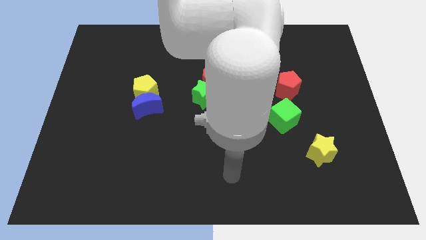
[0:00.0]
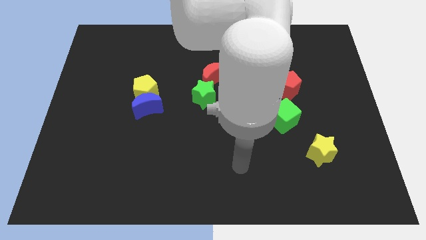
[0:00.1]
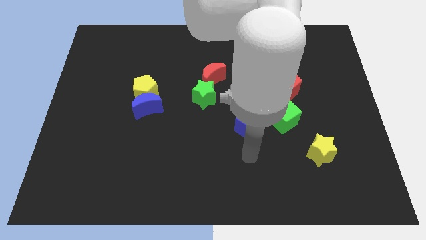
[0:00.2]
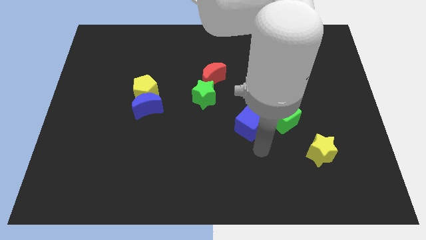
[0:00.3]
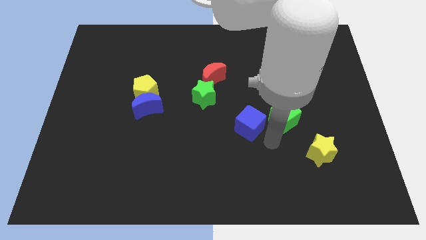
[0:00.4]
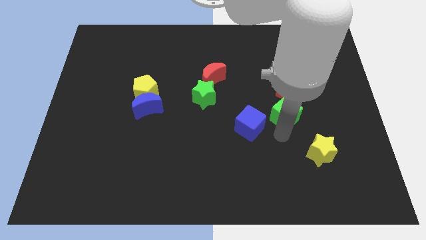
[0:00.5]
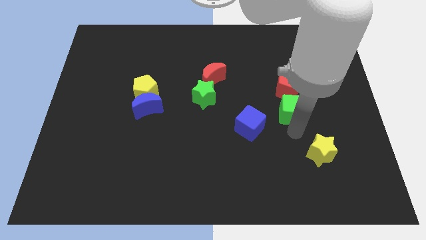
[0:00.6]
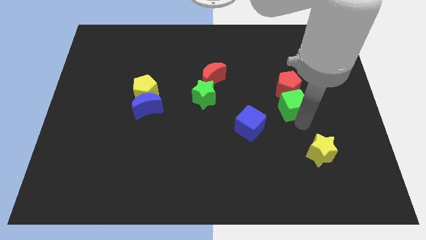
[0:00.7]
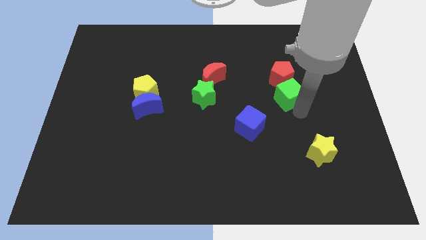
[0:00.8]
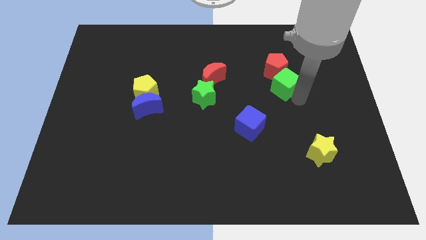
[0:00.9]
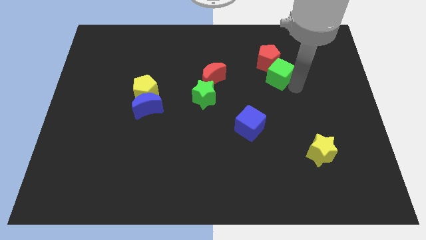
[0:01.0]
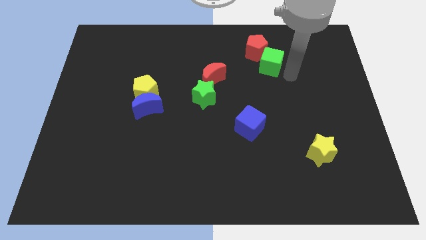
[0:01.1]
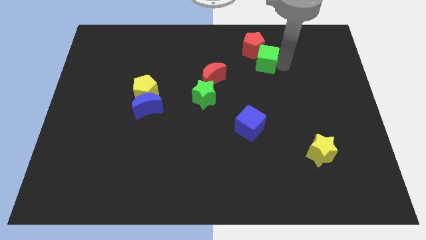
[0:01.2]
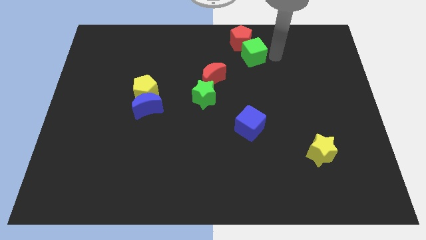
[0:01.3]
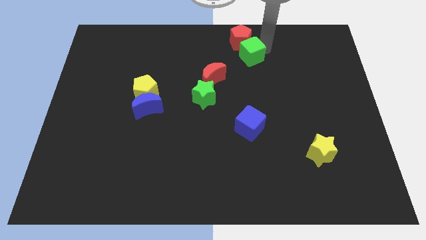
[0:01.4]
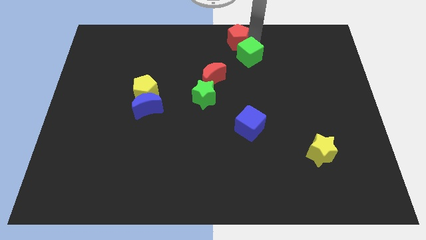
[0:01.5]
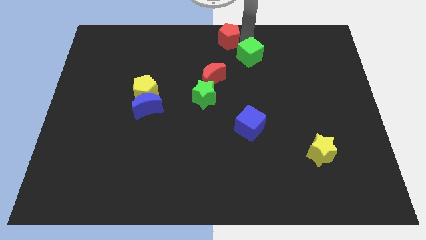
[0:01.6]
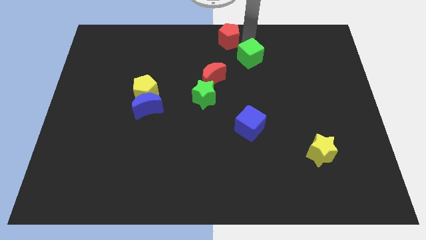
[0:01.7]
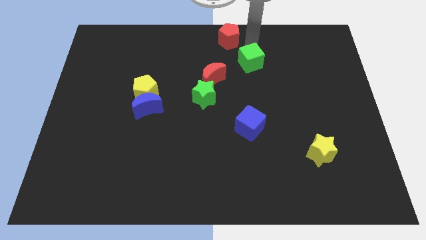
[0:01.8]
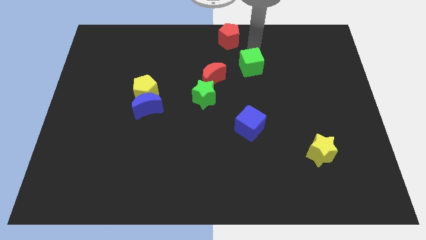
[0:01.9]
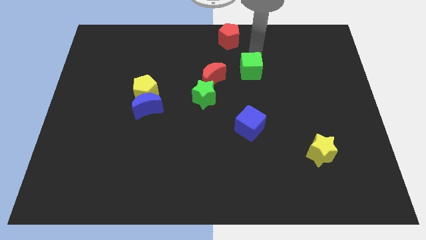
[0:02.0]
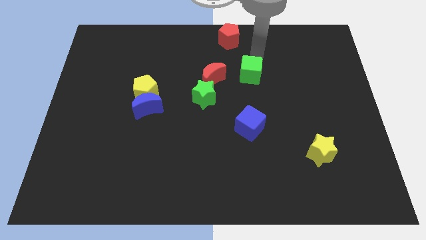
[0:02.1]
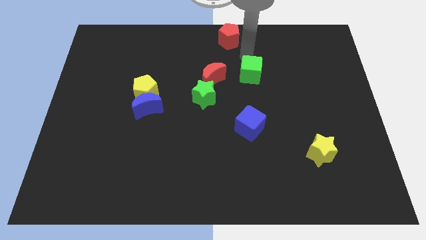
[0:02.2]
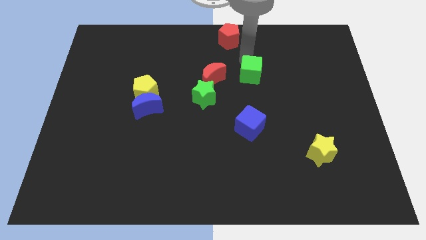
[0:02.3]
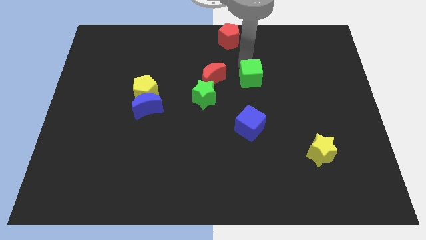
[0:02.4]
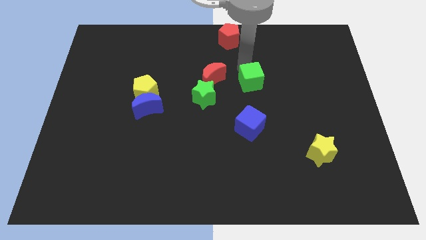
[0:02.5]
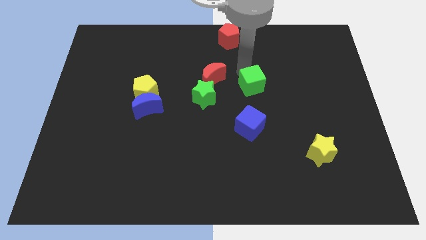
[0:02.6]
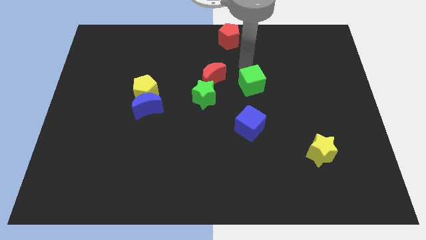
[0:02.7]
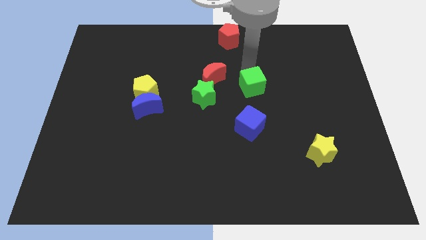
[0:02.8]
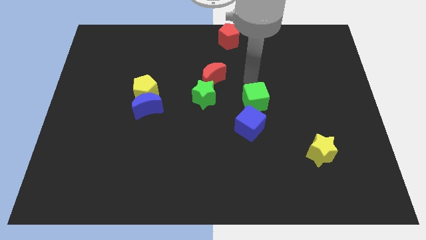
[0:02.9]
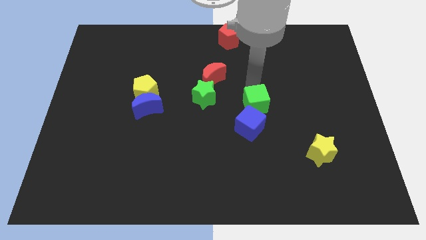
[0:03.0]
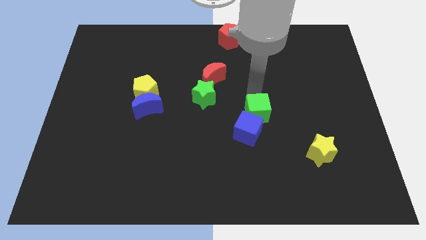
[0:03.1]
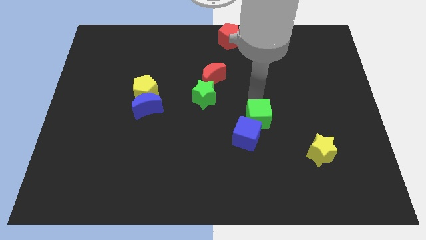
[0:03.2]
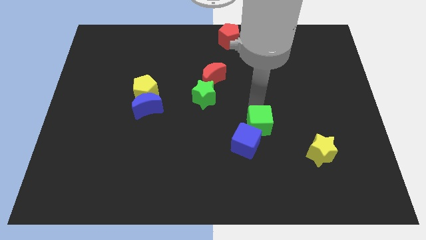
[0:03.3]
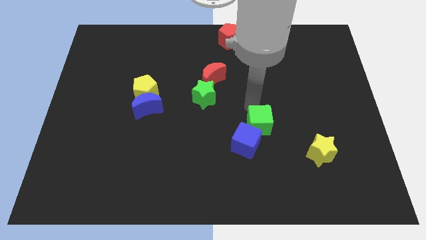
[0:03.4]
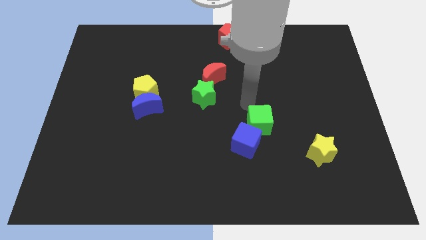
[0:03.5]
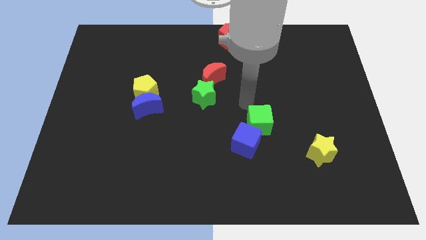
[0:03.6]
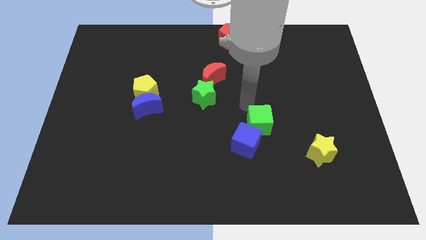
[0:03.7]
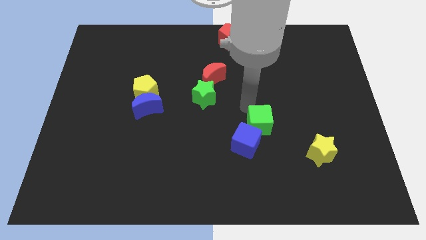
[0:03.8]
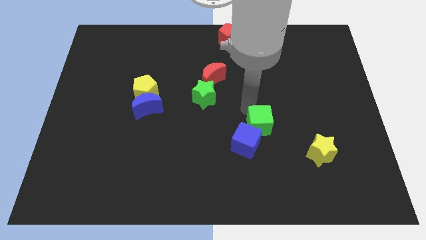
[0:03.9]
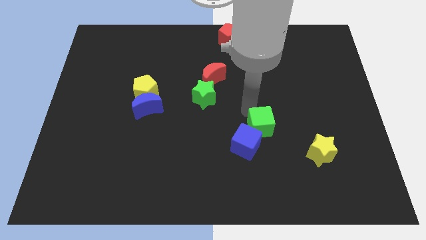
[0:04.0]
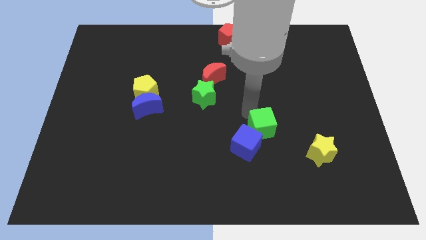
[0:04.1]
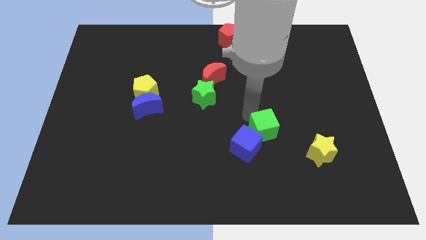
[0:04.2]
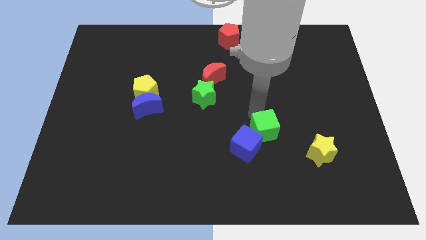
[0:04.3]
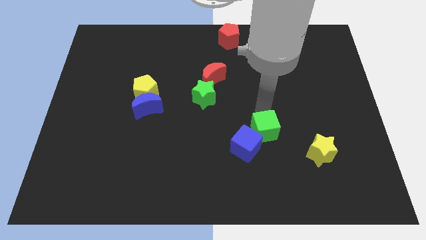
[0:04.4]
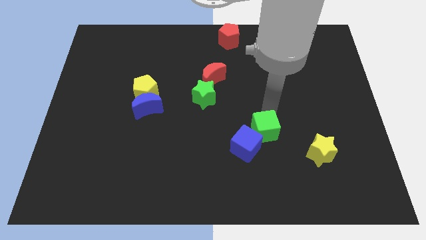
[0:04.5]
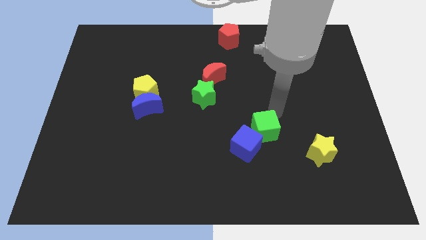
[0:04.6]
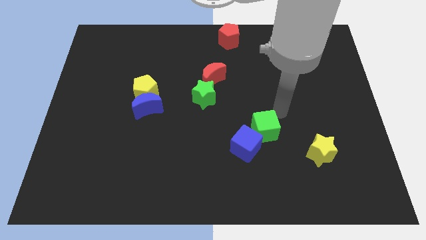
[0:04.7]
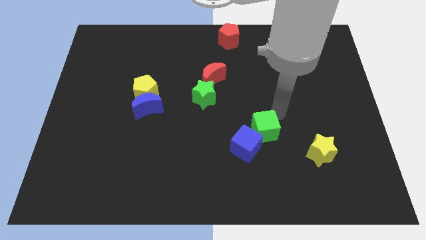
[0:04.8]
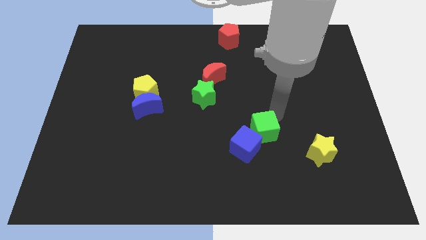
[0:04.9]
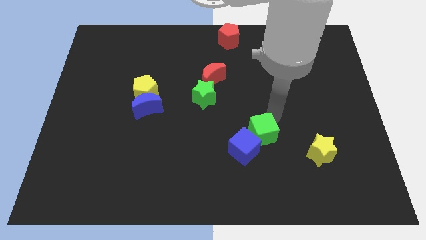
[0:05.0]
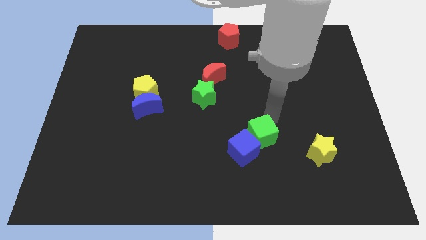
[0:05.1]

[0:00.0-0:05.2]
push the green cube a bit downwards and then left

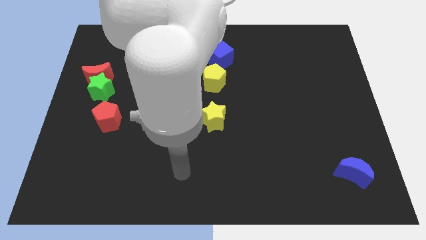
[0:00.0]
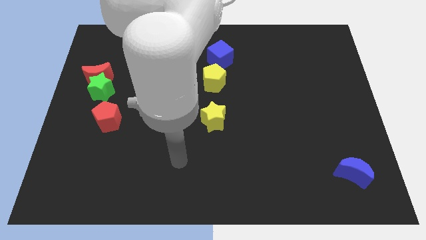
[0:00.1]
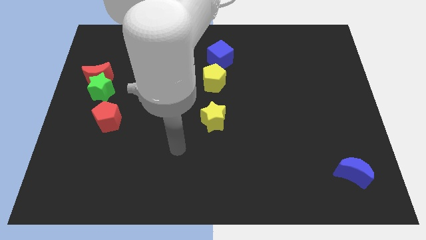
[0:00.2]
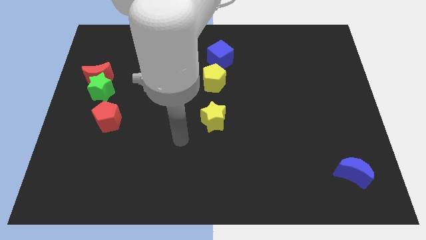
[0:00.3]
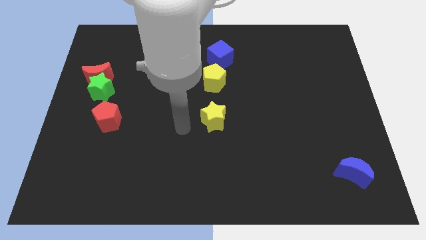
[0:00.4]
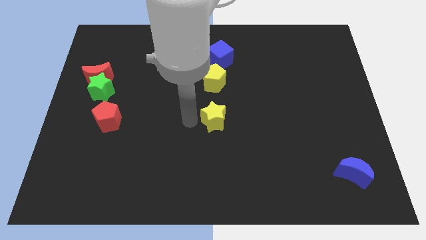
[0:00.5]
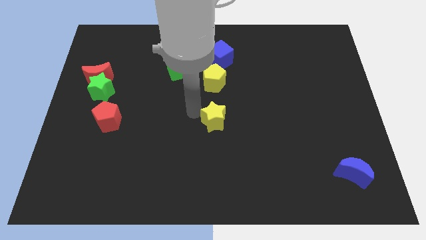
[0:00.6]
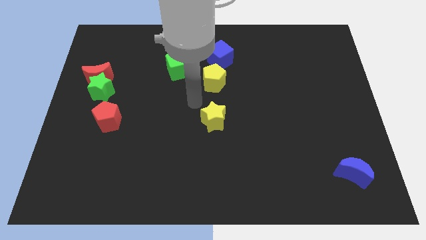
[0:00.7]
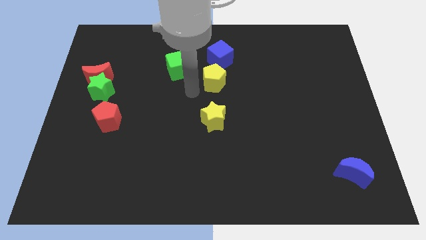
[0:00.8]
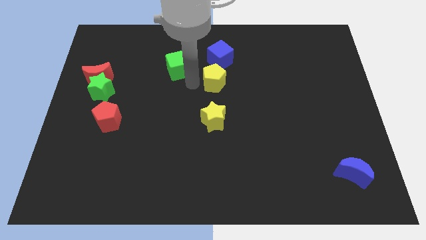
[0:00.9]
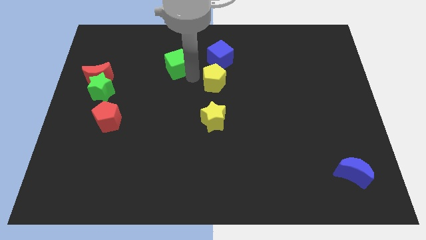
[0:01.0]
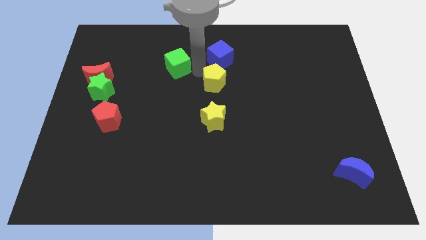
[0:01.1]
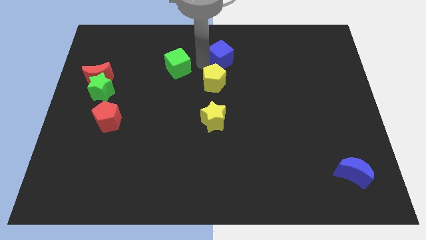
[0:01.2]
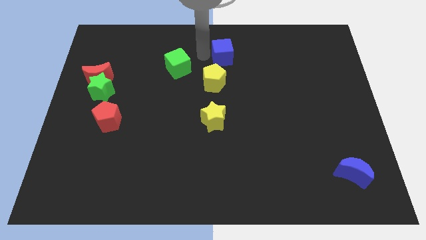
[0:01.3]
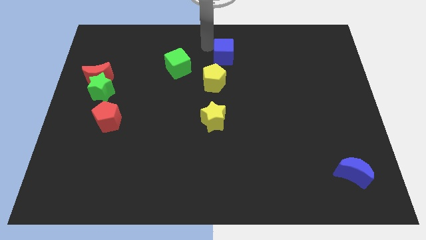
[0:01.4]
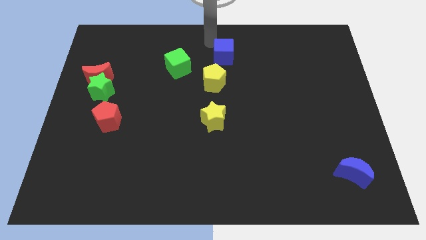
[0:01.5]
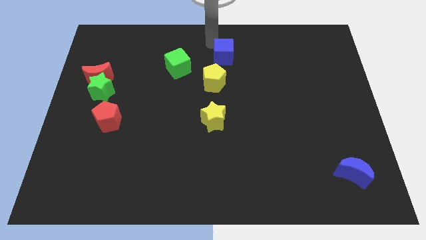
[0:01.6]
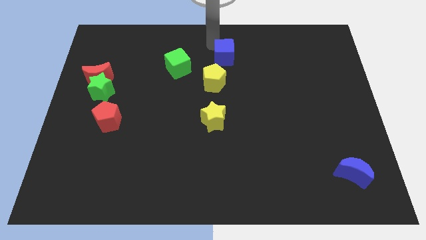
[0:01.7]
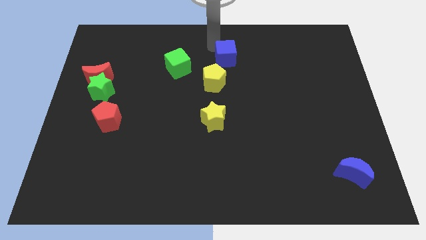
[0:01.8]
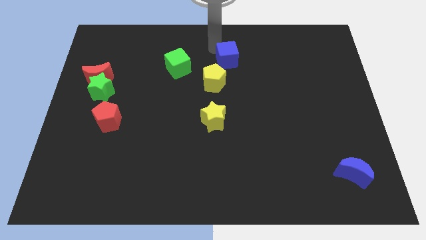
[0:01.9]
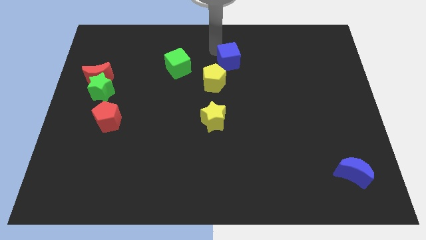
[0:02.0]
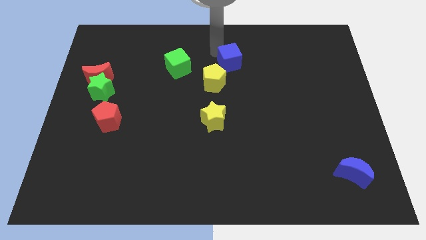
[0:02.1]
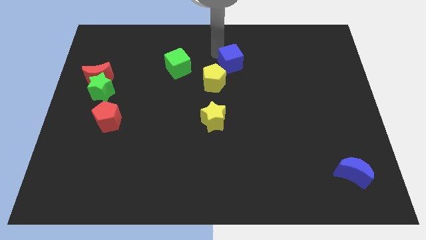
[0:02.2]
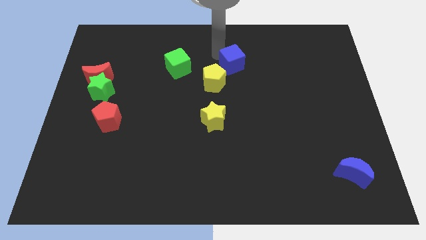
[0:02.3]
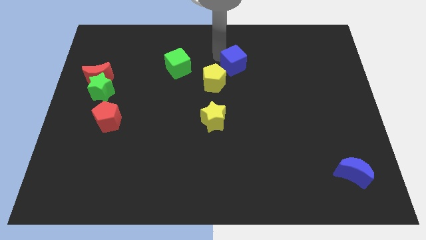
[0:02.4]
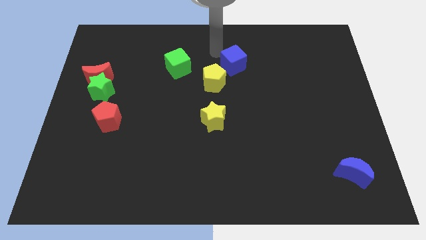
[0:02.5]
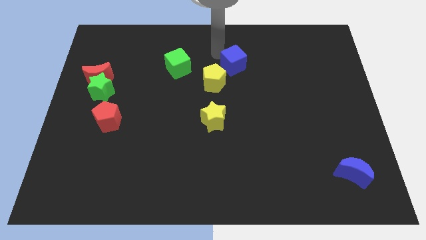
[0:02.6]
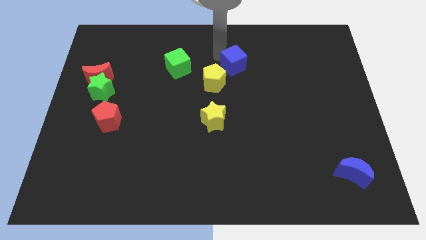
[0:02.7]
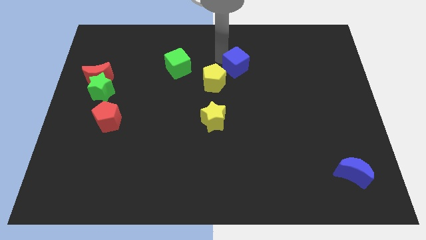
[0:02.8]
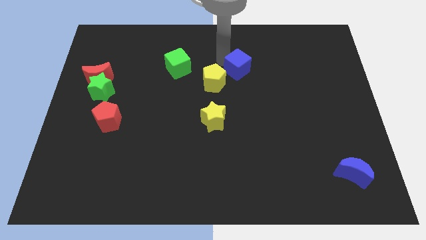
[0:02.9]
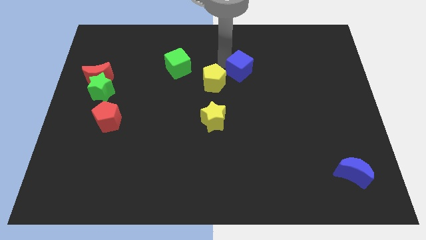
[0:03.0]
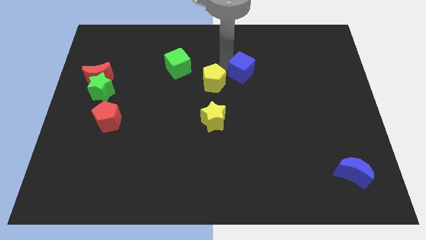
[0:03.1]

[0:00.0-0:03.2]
move the blue cube downwards and to the right diagonally a little
